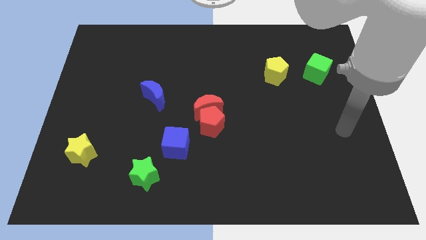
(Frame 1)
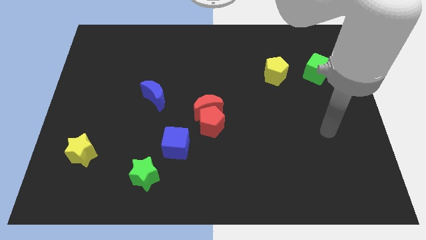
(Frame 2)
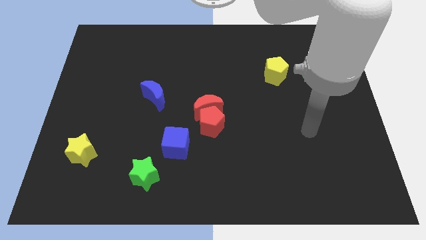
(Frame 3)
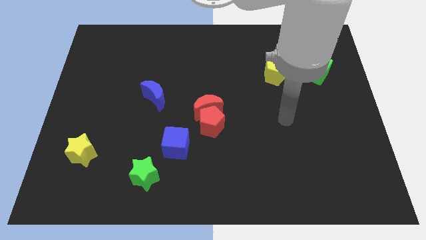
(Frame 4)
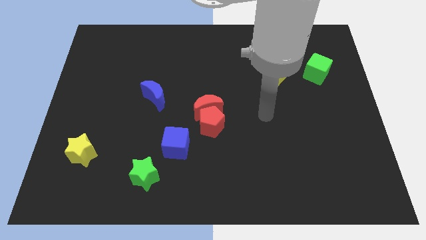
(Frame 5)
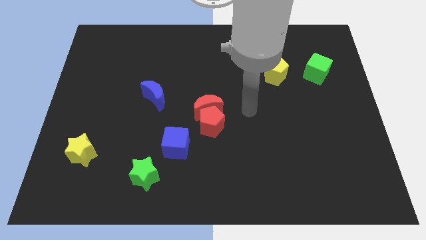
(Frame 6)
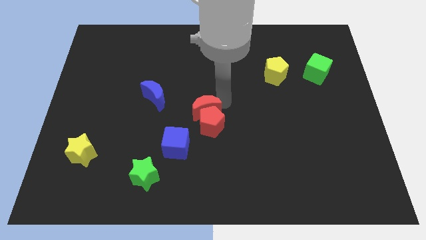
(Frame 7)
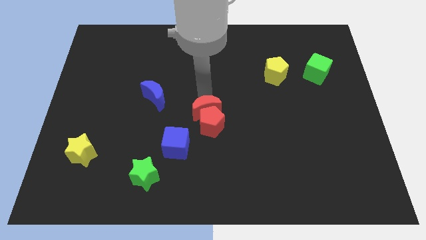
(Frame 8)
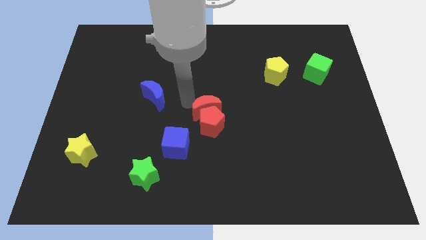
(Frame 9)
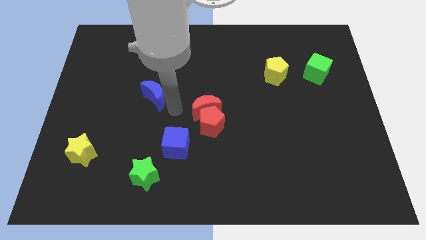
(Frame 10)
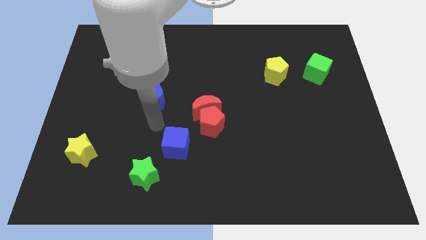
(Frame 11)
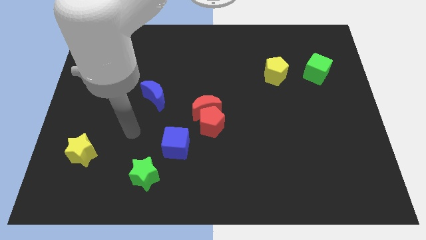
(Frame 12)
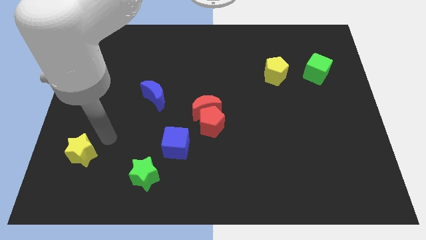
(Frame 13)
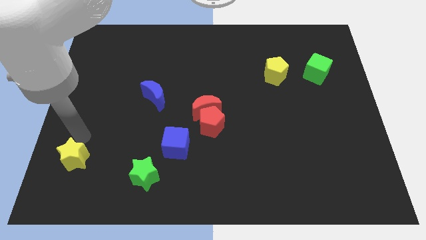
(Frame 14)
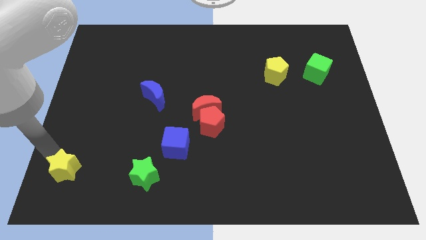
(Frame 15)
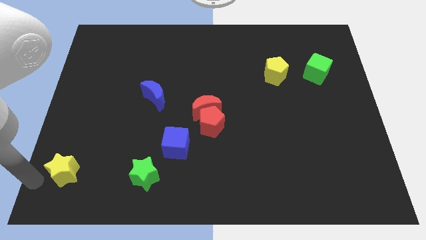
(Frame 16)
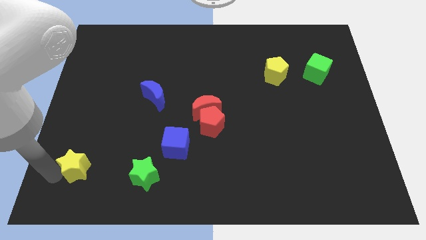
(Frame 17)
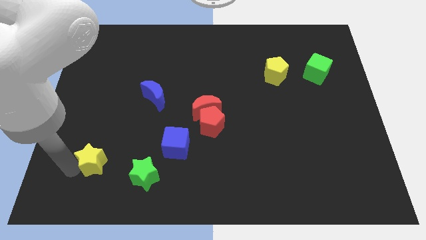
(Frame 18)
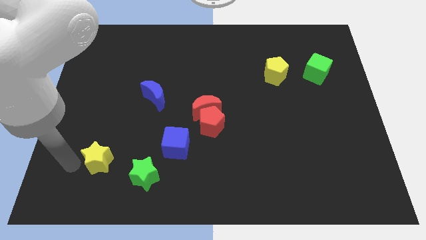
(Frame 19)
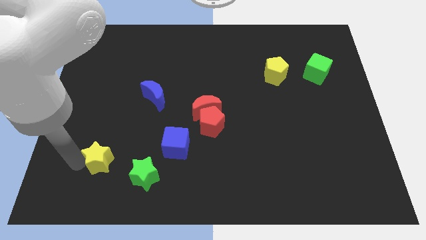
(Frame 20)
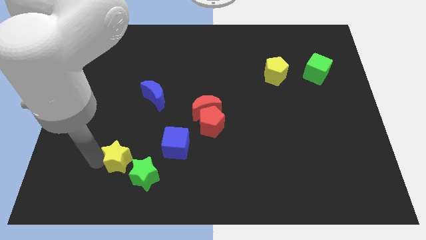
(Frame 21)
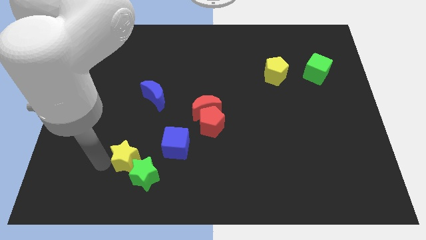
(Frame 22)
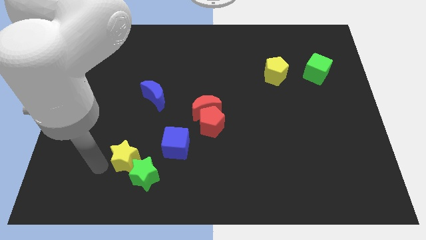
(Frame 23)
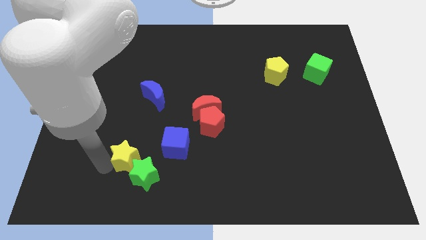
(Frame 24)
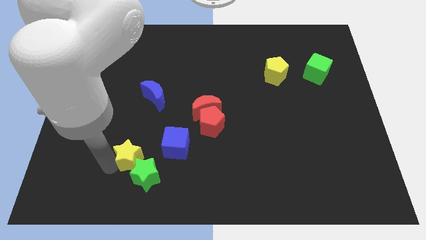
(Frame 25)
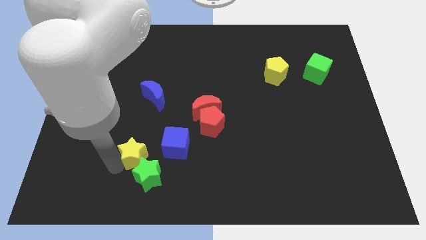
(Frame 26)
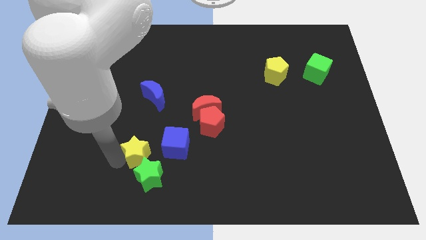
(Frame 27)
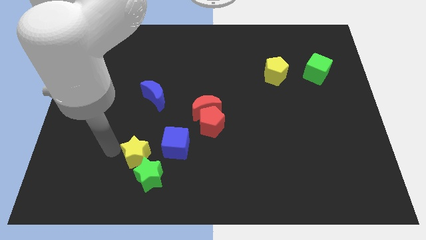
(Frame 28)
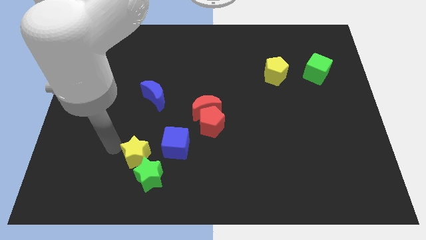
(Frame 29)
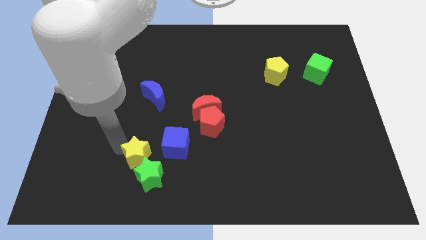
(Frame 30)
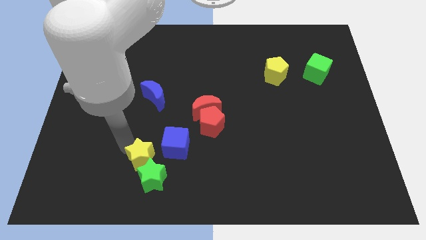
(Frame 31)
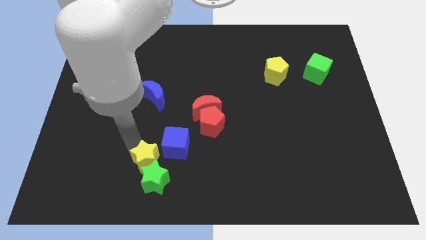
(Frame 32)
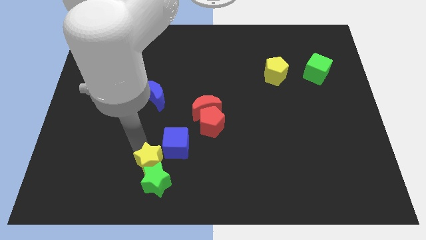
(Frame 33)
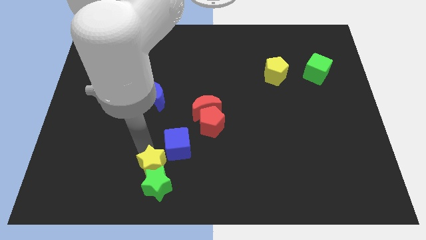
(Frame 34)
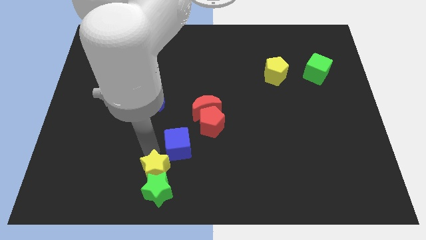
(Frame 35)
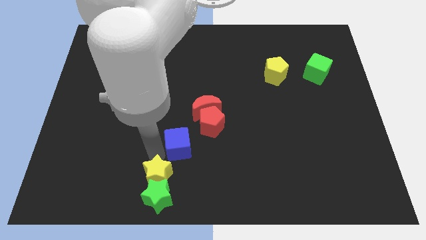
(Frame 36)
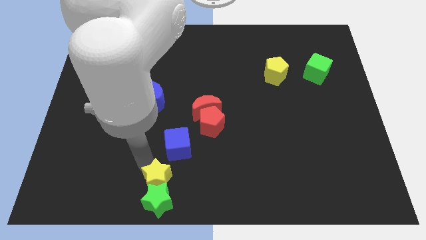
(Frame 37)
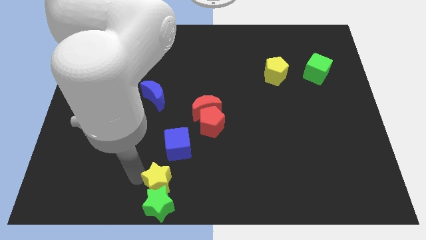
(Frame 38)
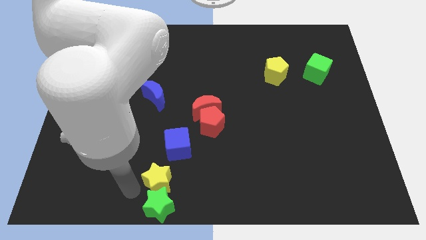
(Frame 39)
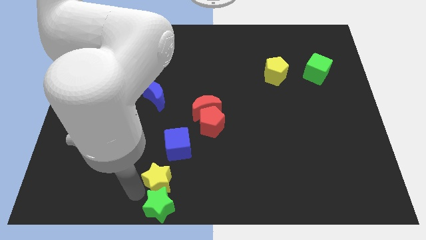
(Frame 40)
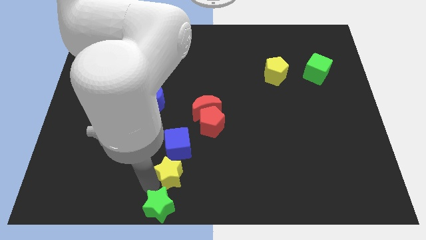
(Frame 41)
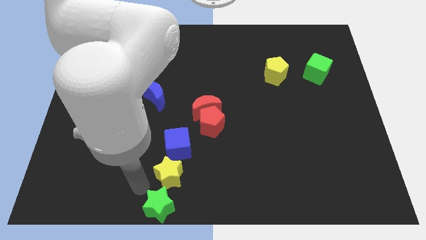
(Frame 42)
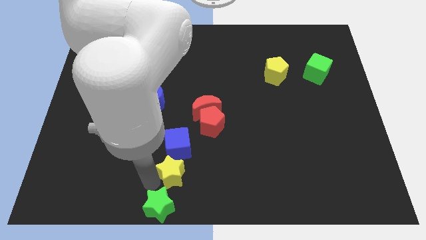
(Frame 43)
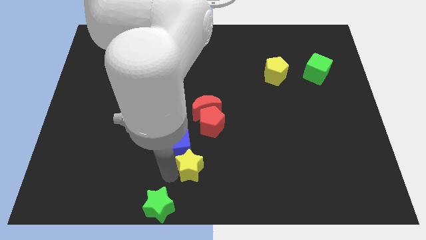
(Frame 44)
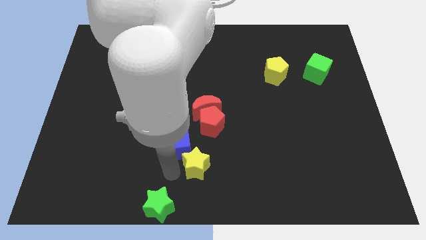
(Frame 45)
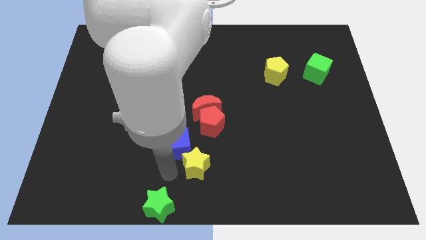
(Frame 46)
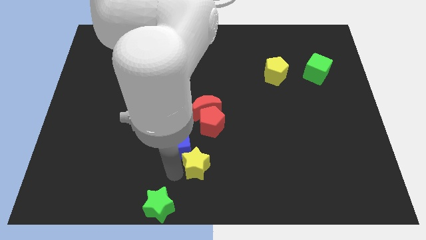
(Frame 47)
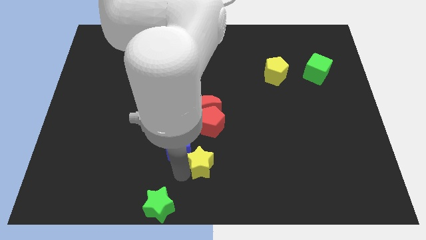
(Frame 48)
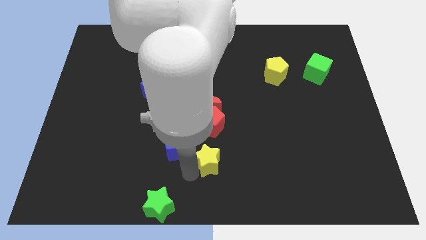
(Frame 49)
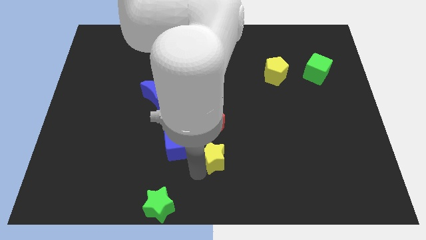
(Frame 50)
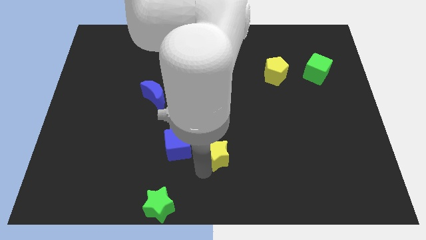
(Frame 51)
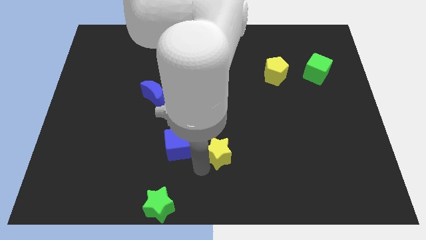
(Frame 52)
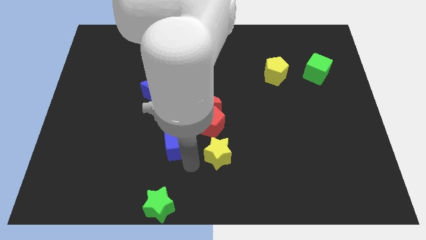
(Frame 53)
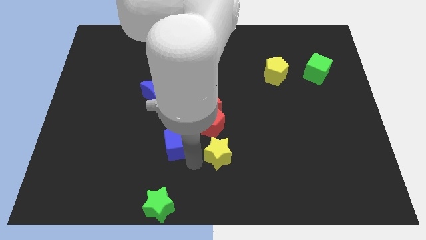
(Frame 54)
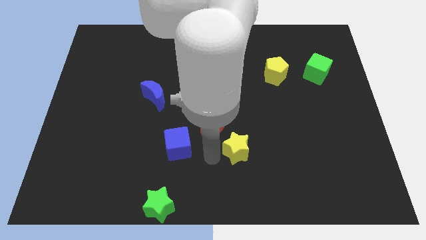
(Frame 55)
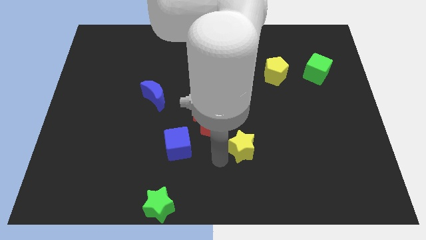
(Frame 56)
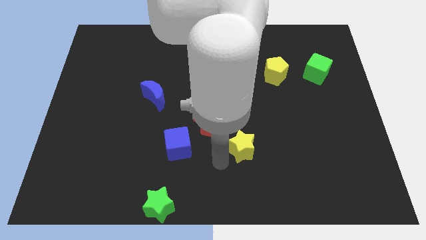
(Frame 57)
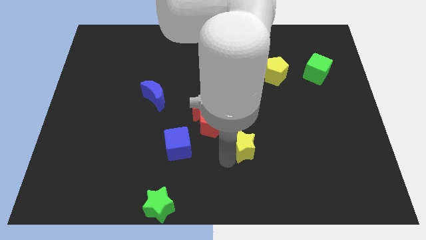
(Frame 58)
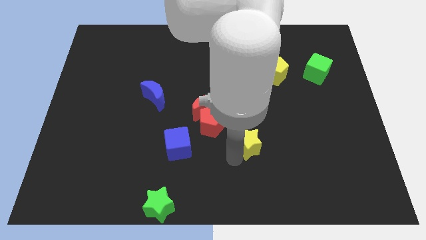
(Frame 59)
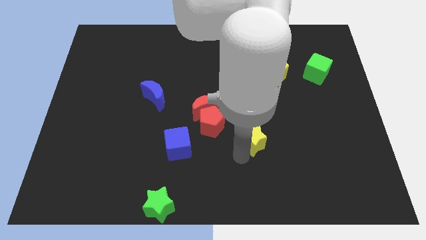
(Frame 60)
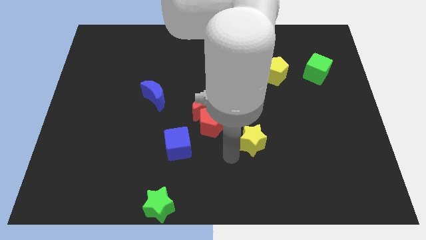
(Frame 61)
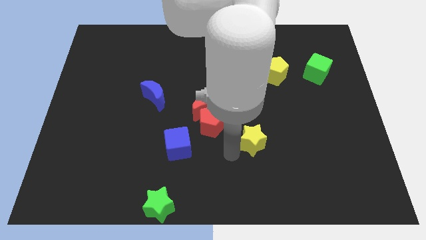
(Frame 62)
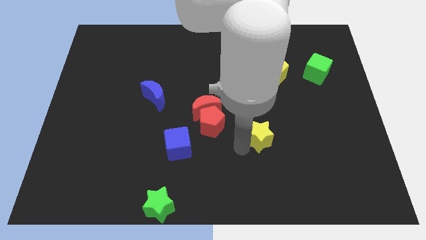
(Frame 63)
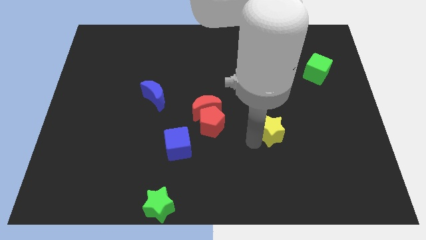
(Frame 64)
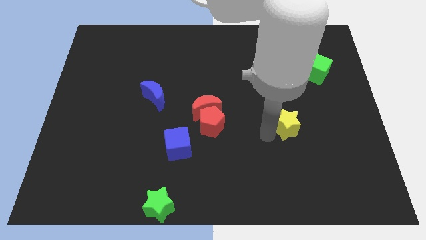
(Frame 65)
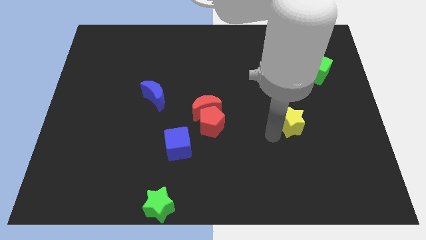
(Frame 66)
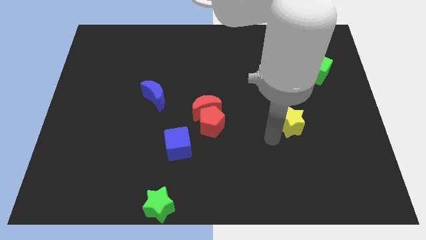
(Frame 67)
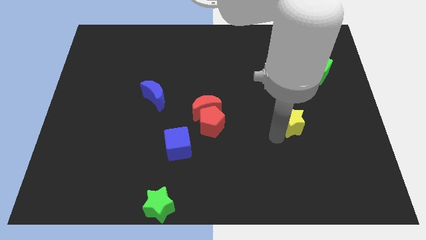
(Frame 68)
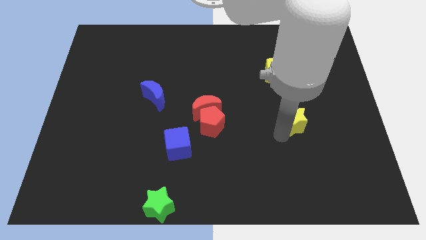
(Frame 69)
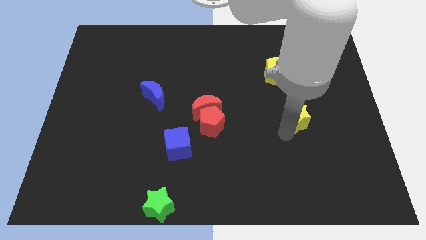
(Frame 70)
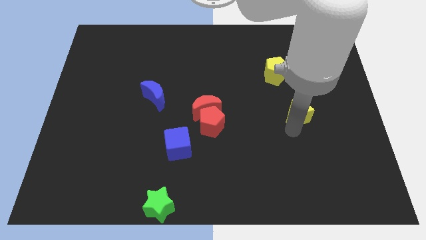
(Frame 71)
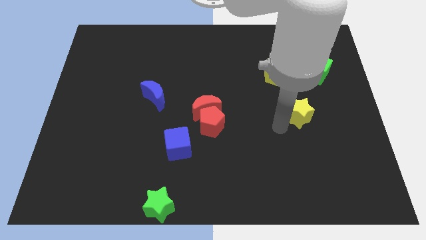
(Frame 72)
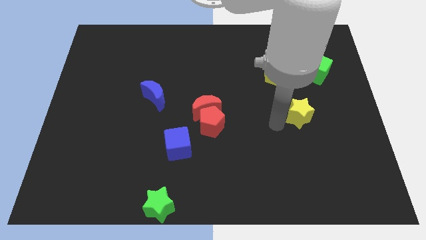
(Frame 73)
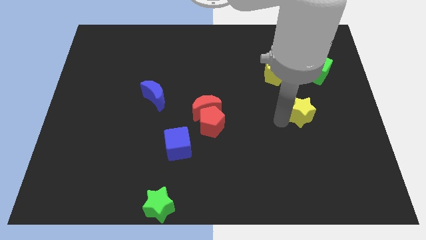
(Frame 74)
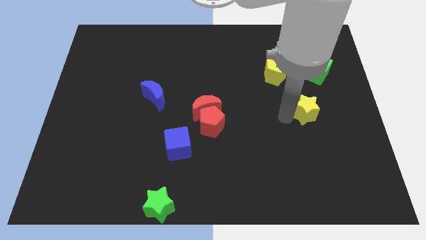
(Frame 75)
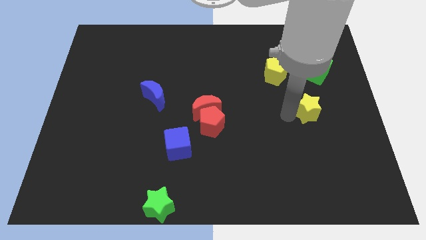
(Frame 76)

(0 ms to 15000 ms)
move the yellow star to the bottom side of the green cube
